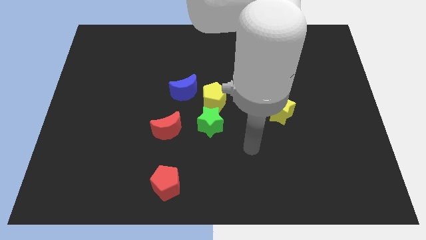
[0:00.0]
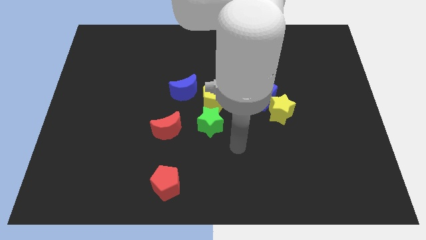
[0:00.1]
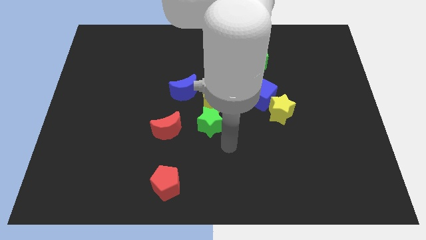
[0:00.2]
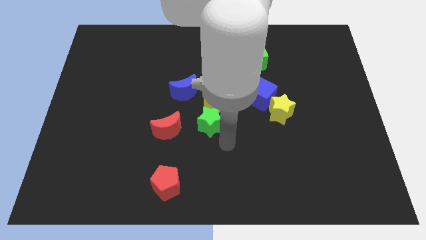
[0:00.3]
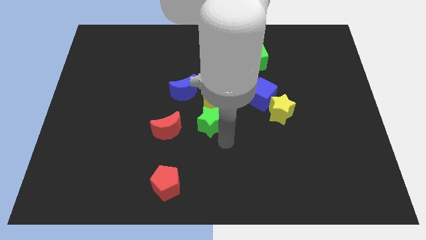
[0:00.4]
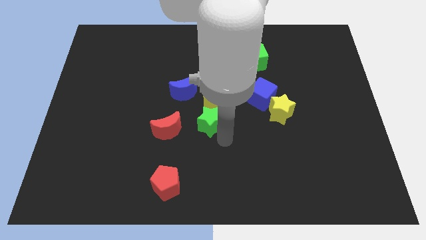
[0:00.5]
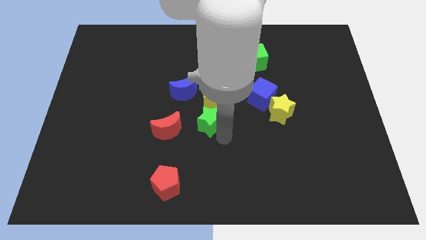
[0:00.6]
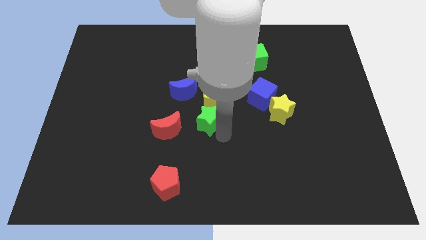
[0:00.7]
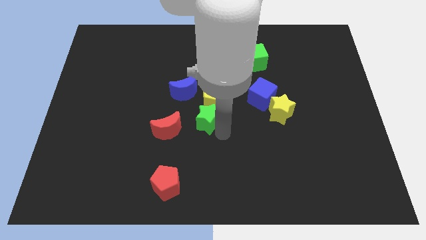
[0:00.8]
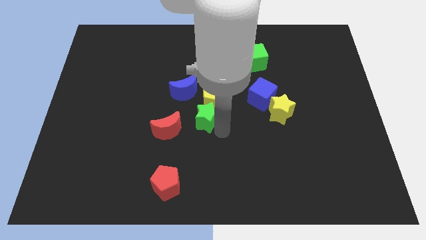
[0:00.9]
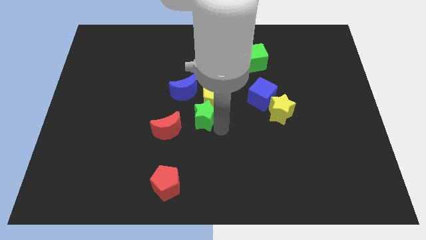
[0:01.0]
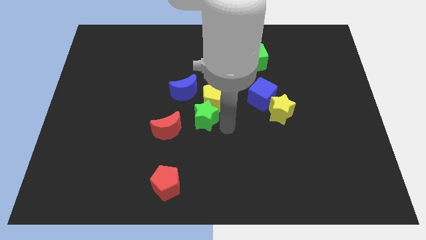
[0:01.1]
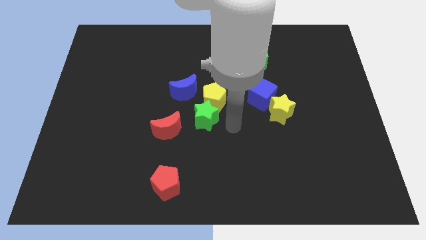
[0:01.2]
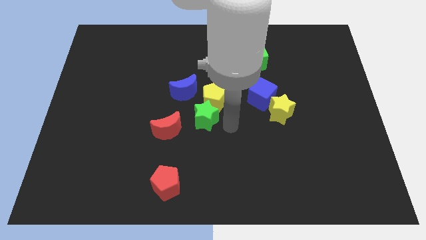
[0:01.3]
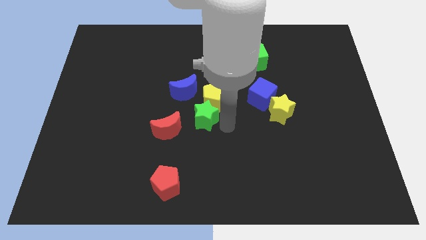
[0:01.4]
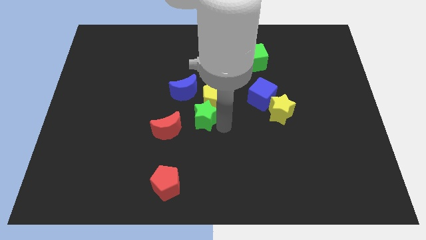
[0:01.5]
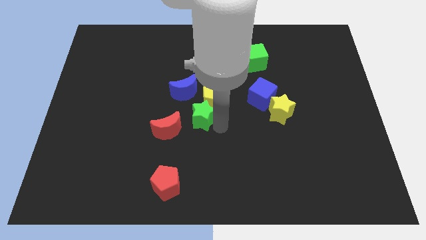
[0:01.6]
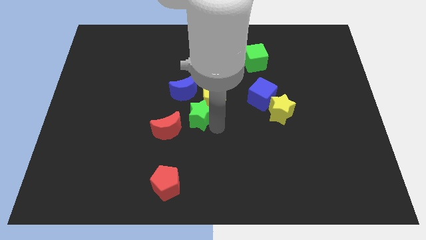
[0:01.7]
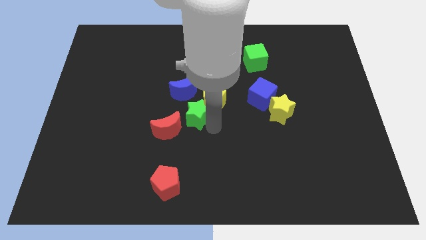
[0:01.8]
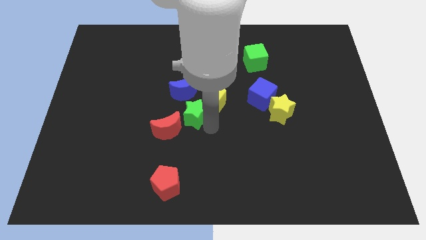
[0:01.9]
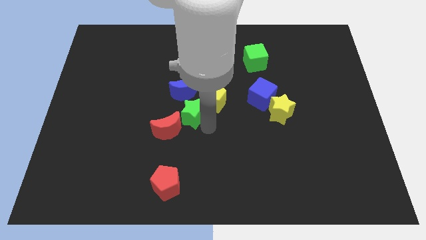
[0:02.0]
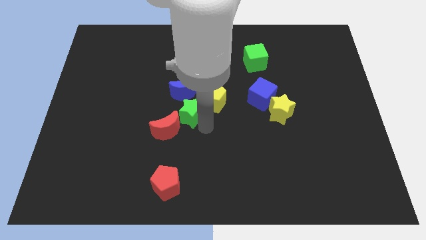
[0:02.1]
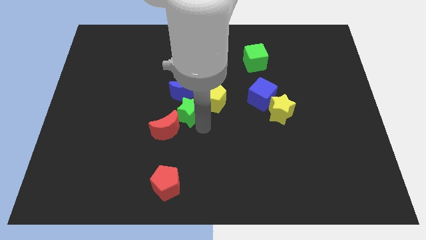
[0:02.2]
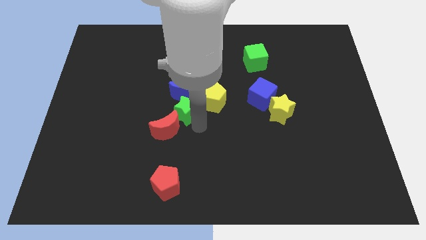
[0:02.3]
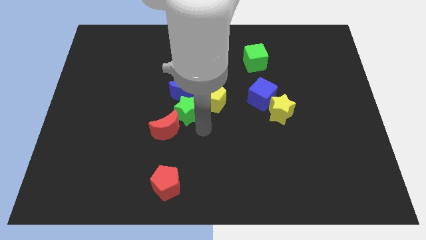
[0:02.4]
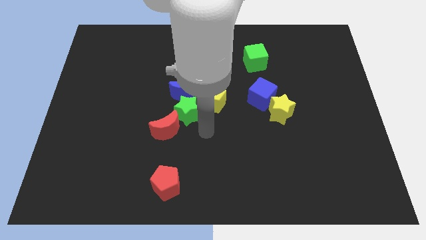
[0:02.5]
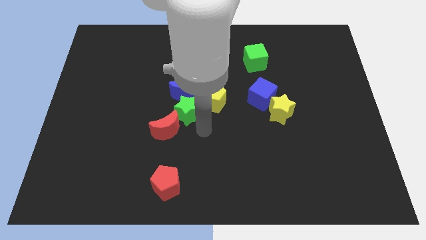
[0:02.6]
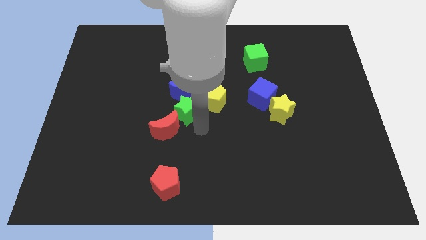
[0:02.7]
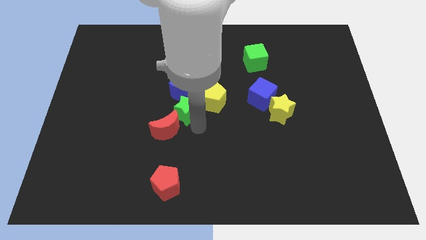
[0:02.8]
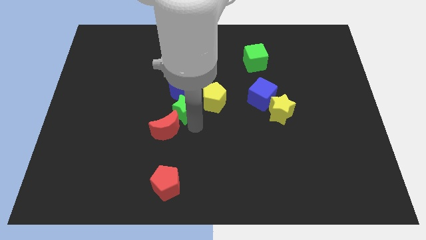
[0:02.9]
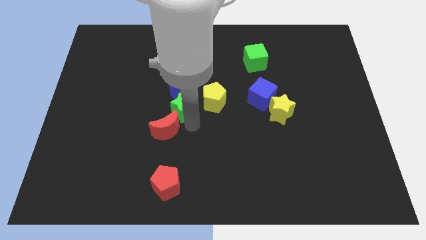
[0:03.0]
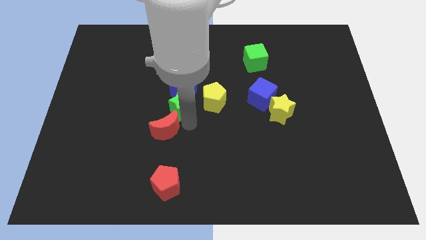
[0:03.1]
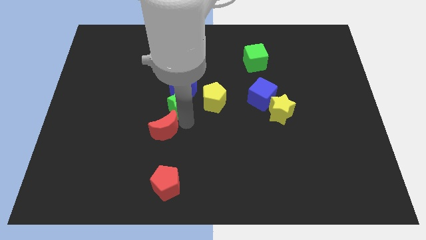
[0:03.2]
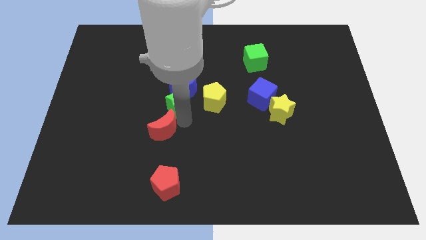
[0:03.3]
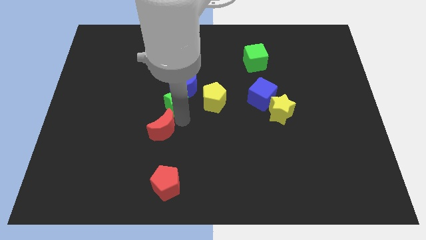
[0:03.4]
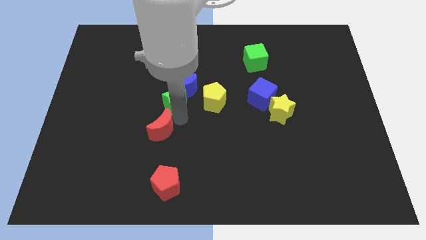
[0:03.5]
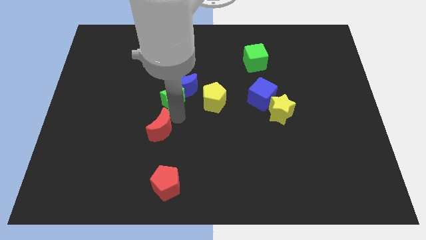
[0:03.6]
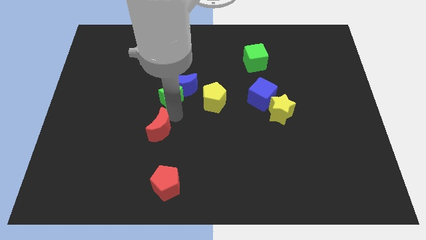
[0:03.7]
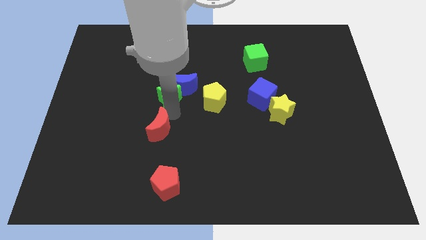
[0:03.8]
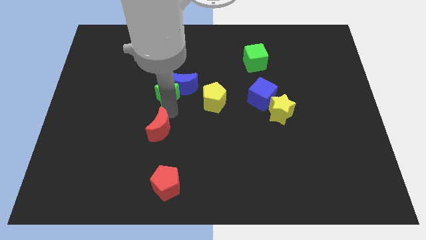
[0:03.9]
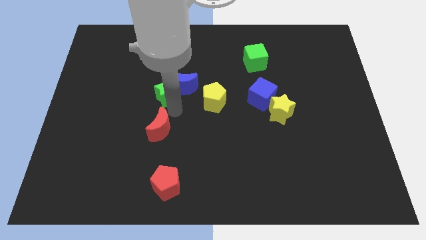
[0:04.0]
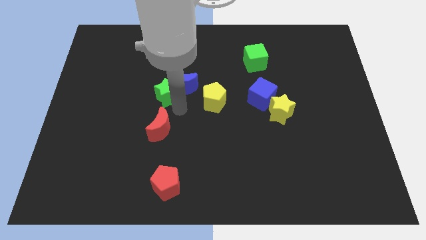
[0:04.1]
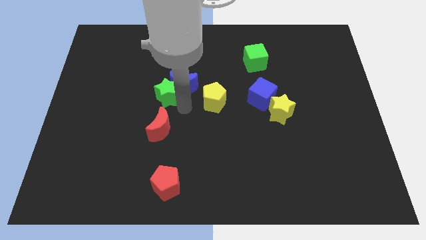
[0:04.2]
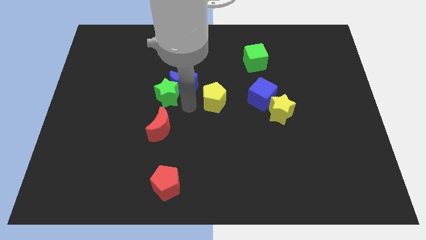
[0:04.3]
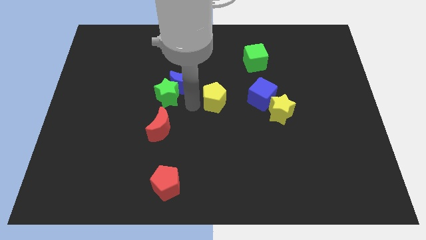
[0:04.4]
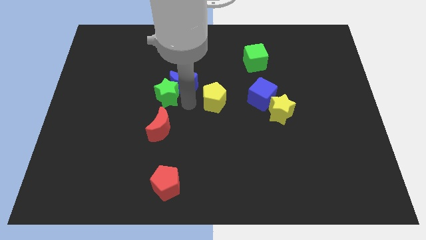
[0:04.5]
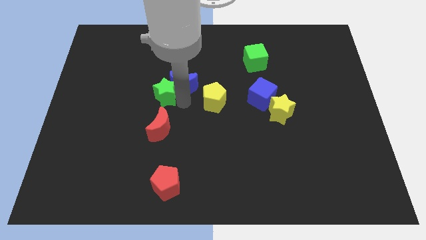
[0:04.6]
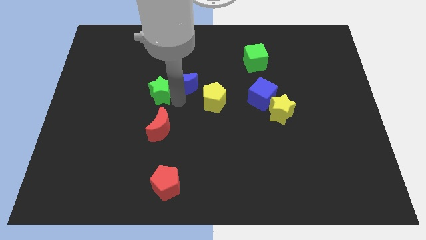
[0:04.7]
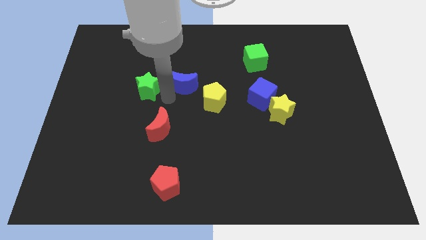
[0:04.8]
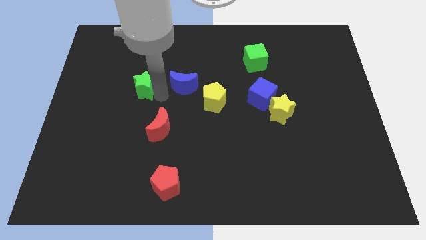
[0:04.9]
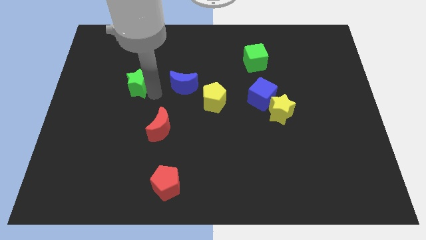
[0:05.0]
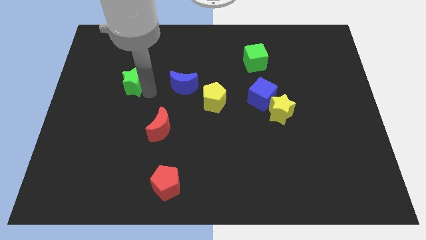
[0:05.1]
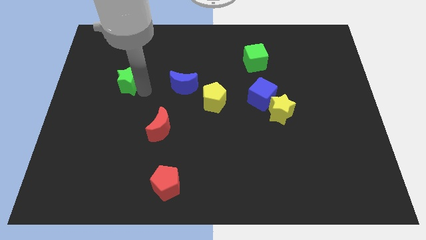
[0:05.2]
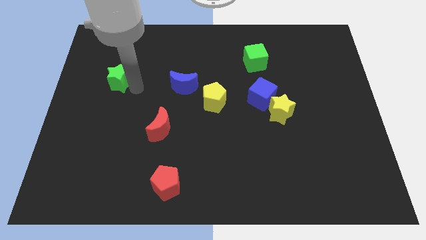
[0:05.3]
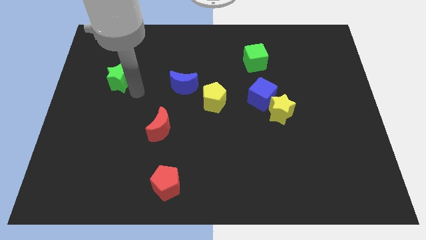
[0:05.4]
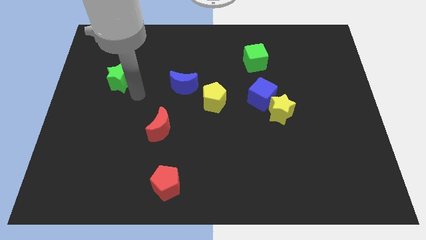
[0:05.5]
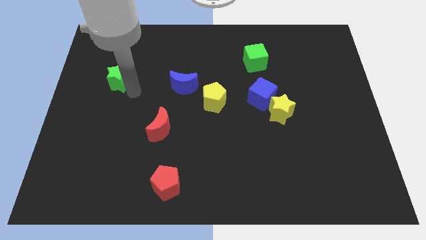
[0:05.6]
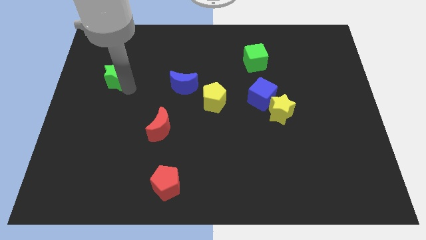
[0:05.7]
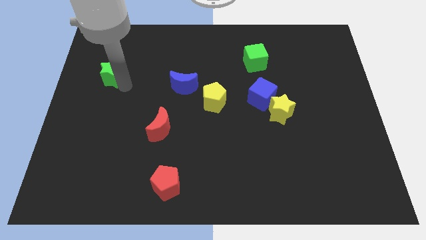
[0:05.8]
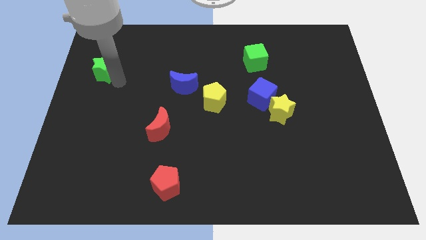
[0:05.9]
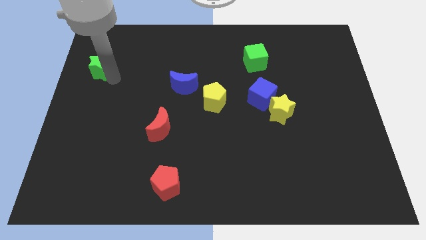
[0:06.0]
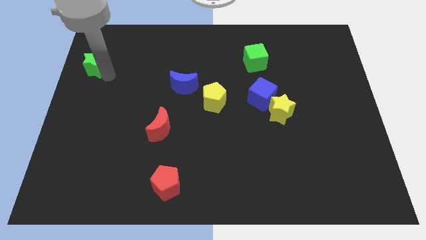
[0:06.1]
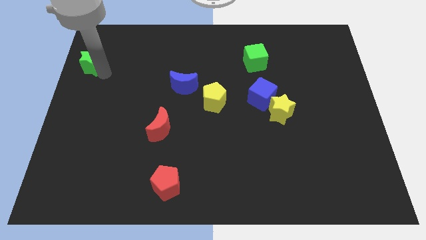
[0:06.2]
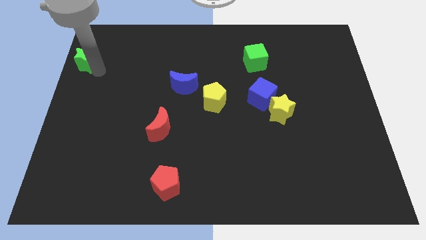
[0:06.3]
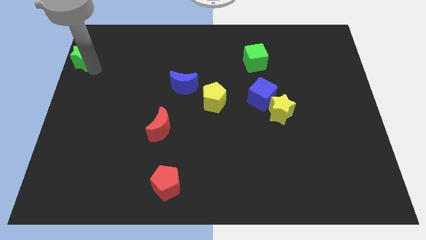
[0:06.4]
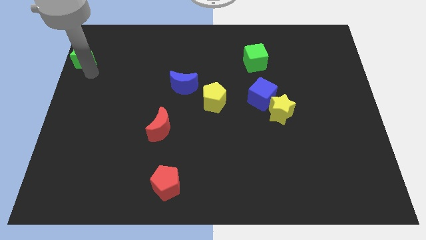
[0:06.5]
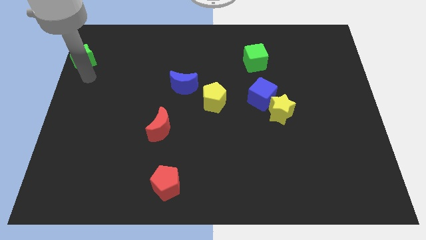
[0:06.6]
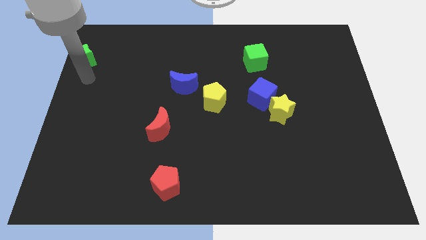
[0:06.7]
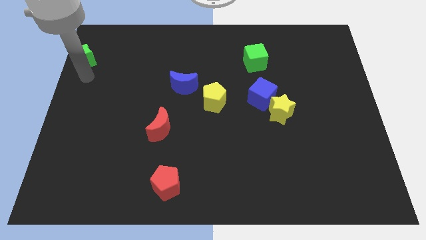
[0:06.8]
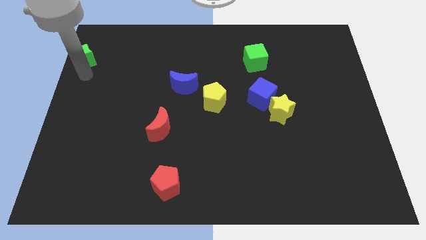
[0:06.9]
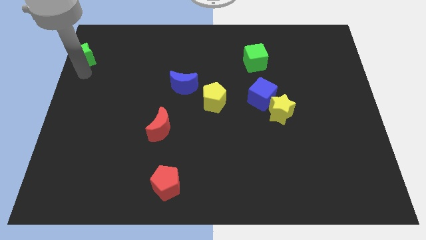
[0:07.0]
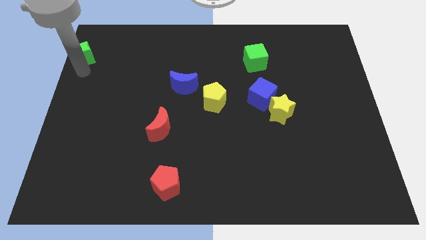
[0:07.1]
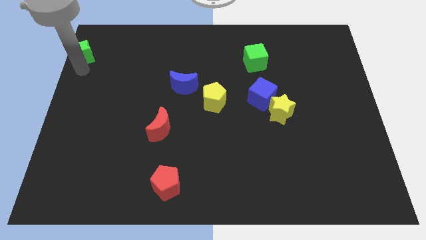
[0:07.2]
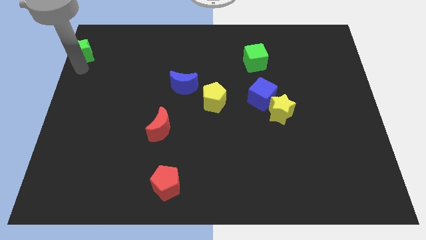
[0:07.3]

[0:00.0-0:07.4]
move the green star to the upper left corner
